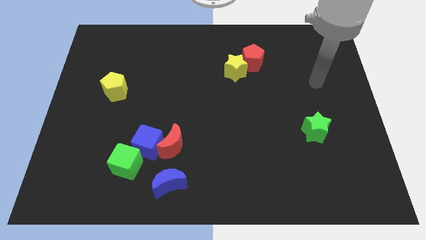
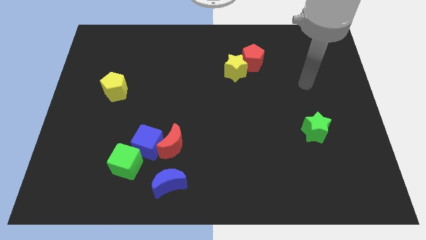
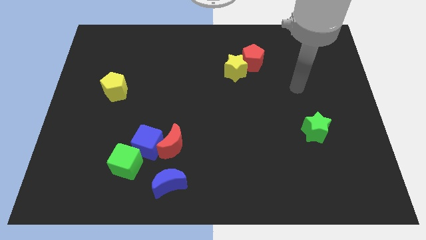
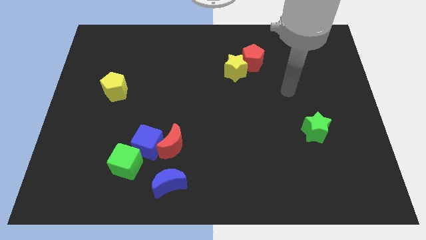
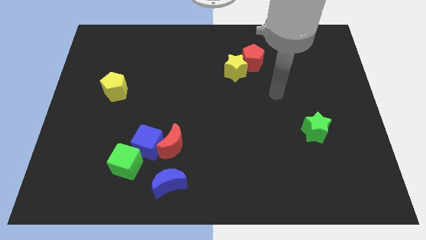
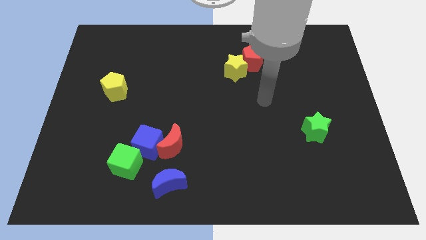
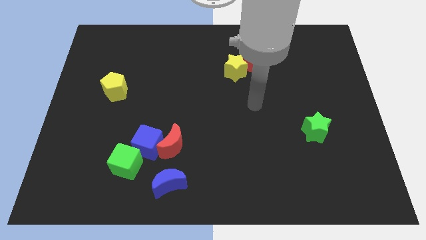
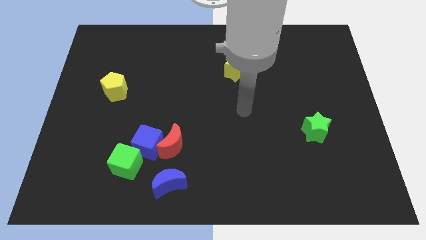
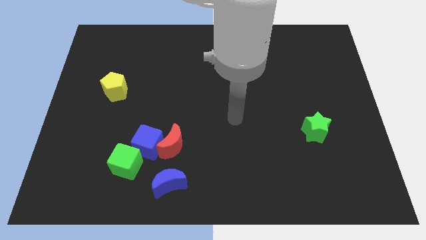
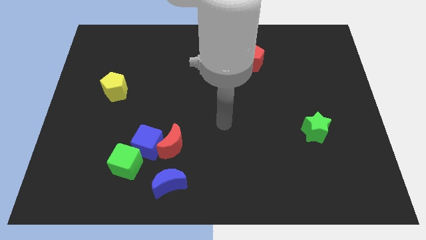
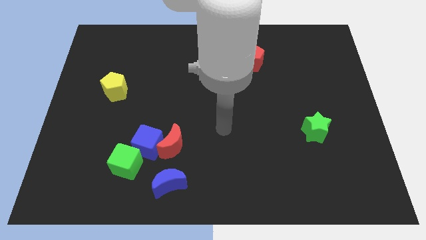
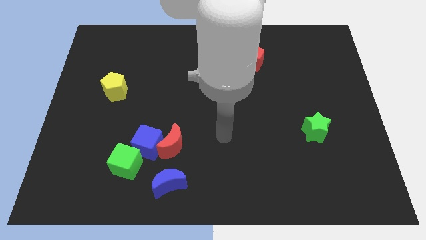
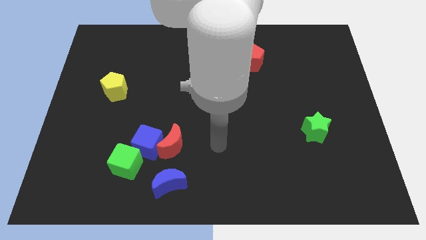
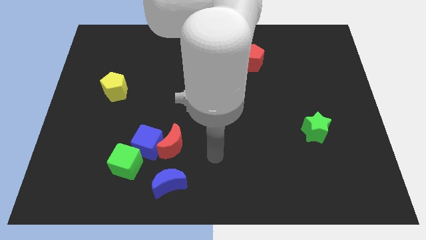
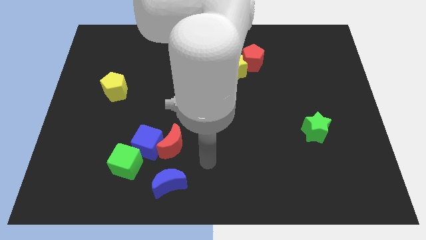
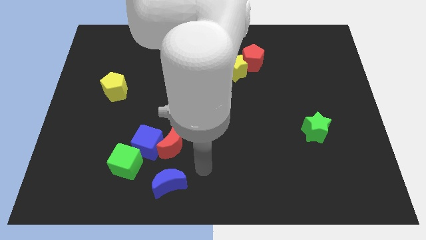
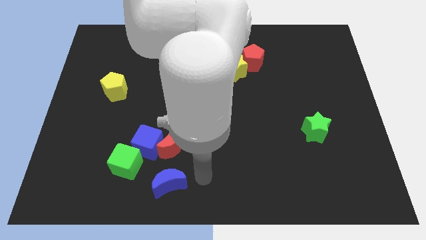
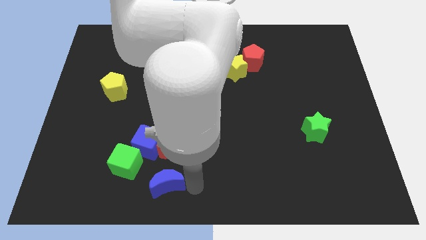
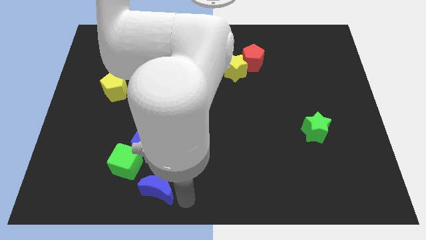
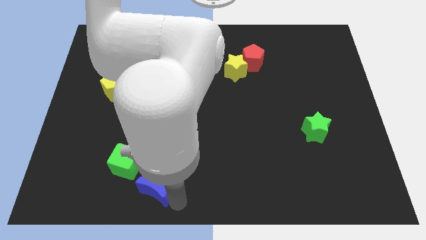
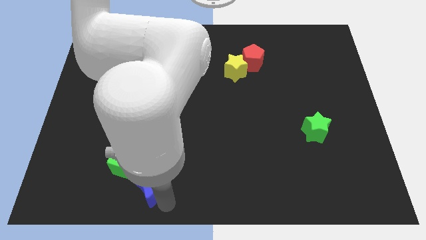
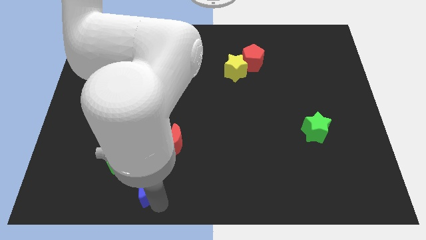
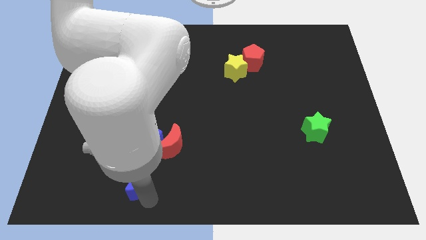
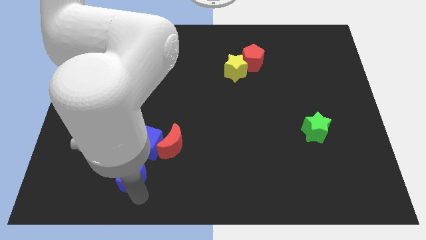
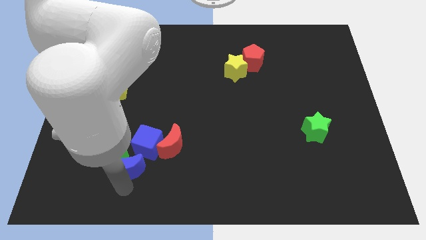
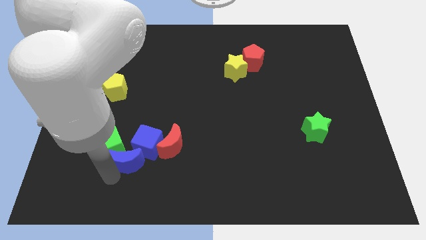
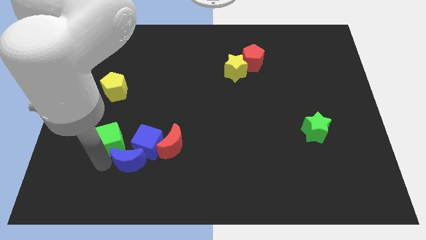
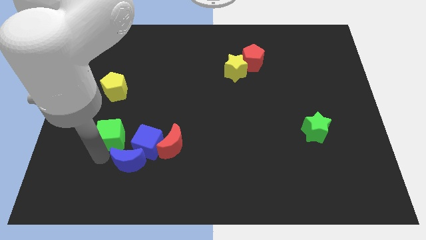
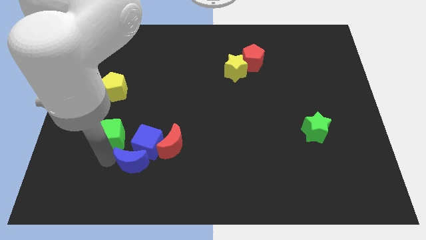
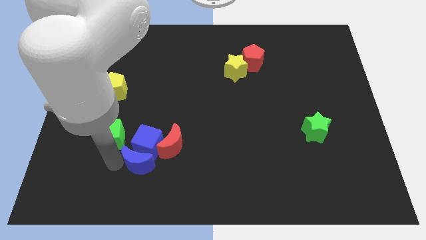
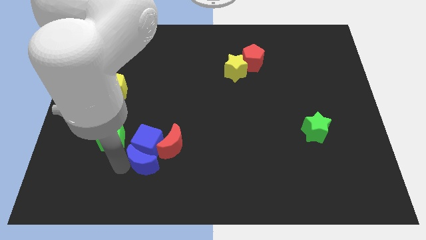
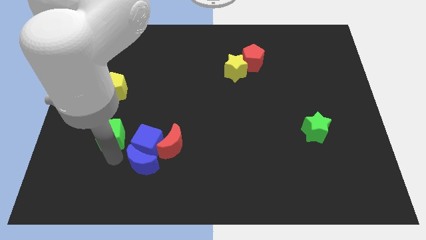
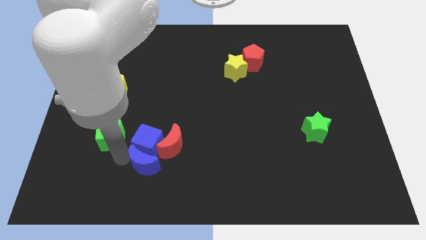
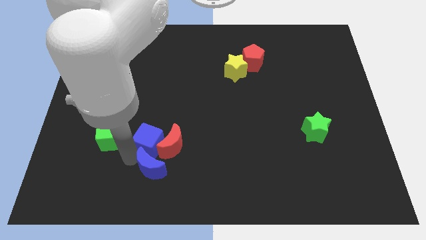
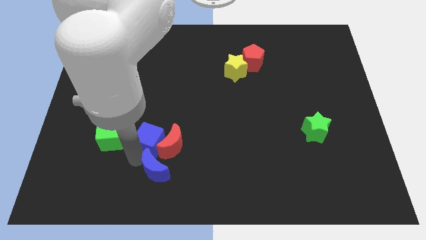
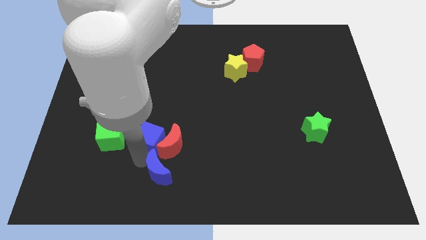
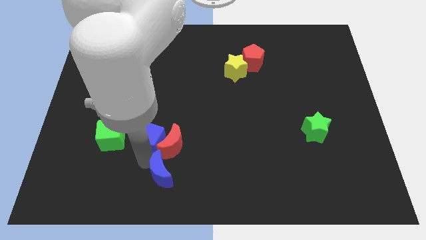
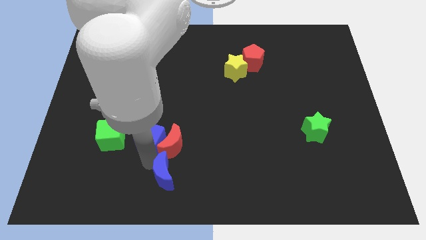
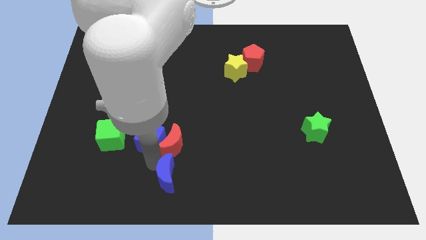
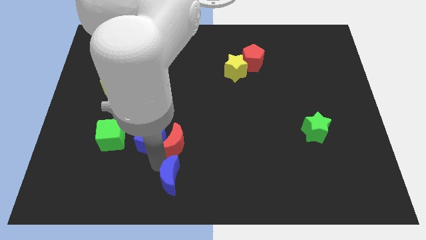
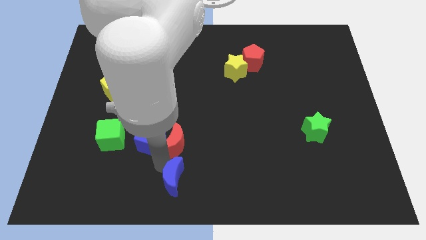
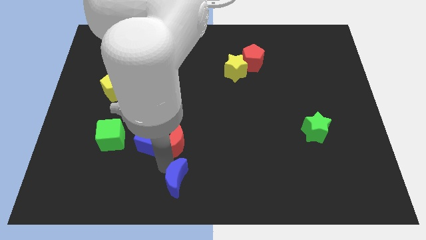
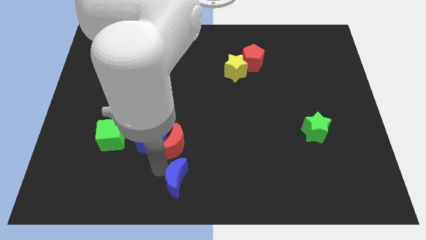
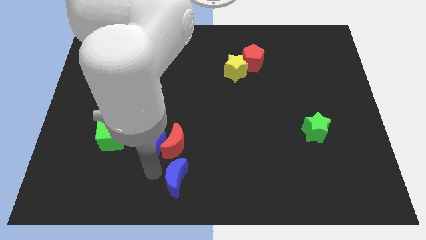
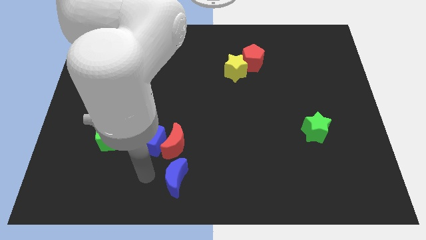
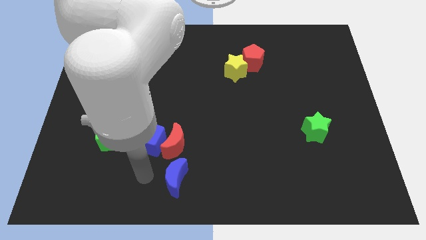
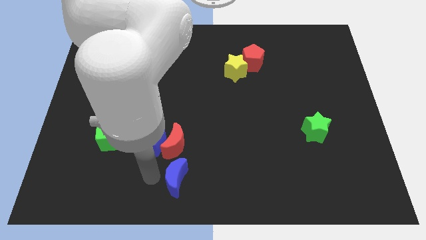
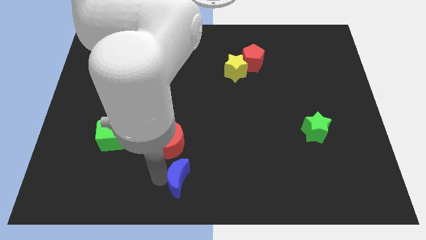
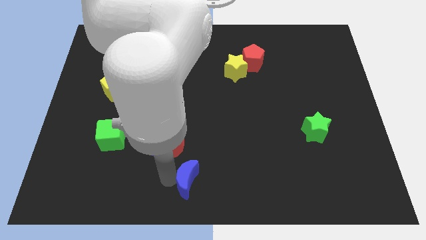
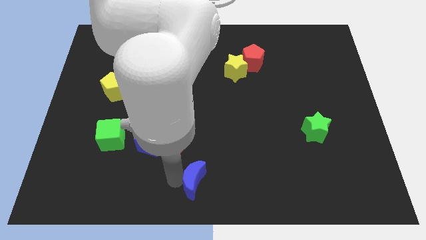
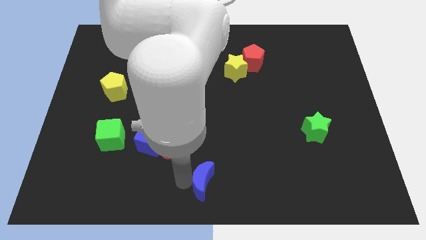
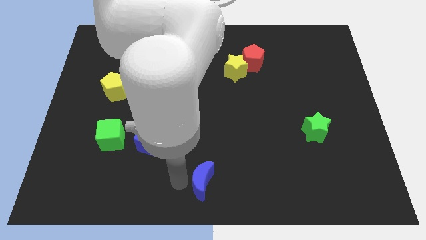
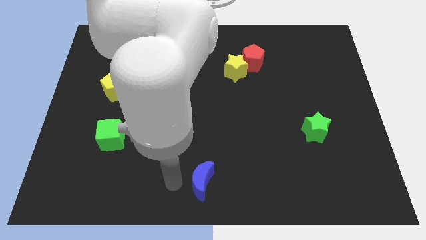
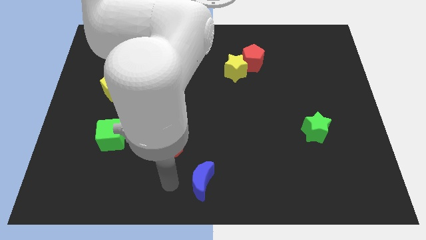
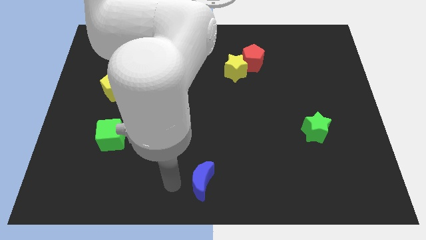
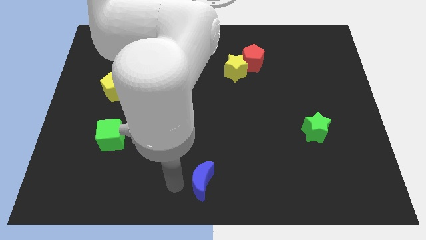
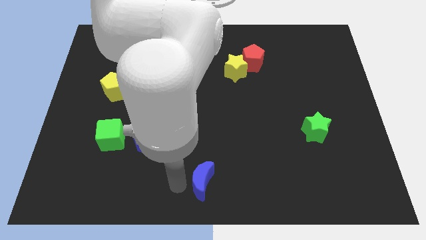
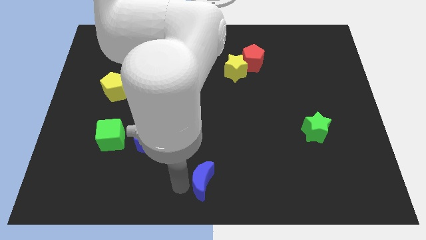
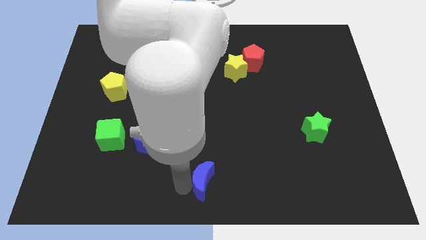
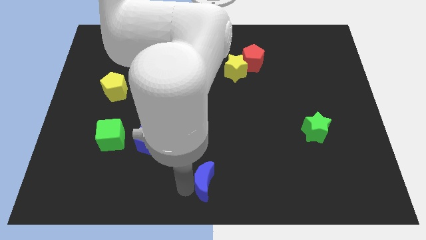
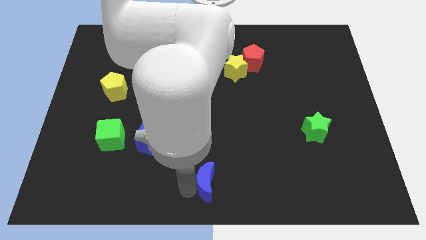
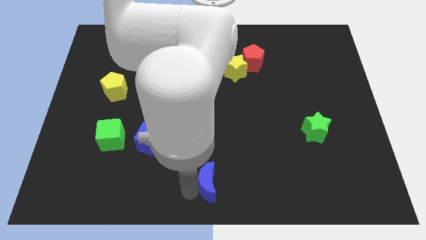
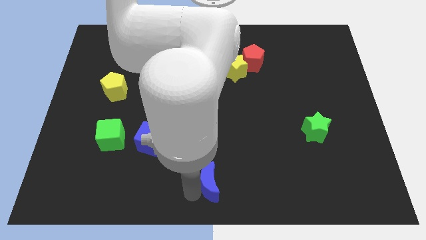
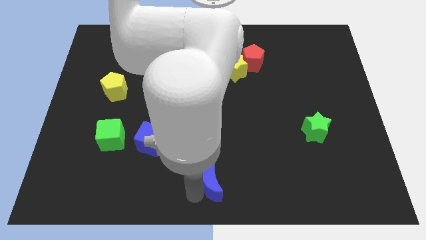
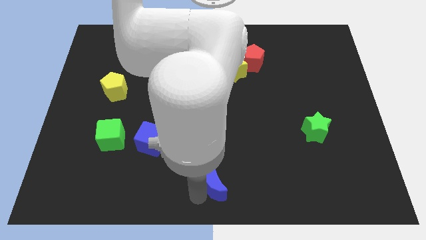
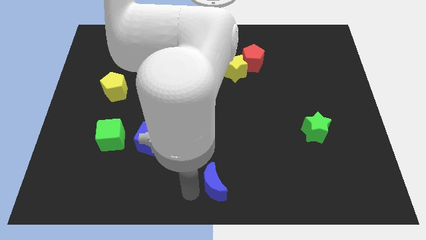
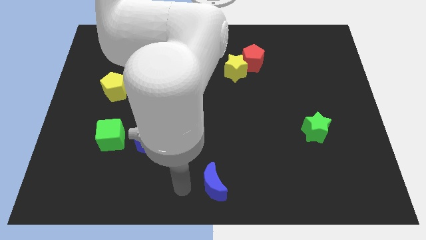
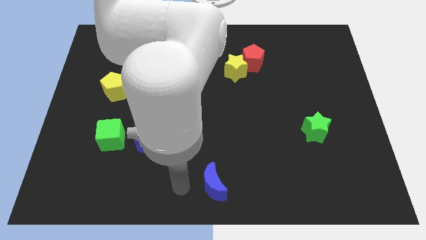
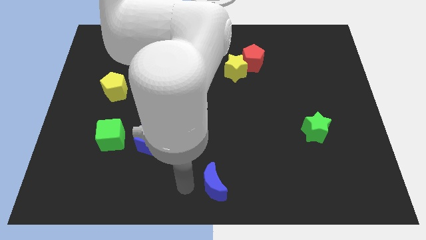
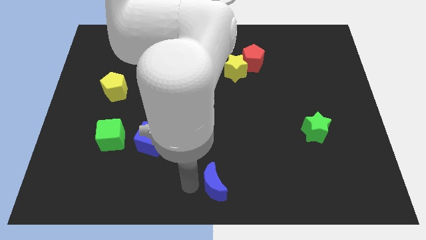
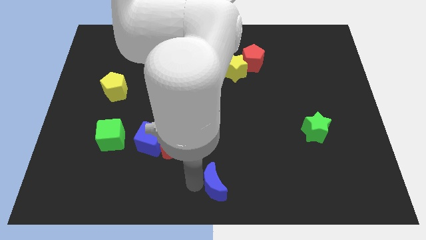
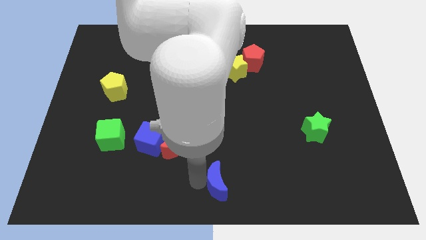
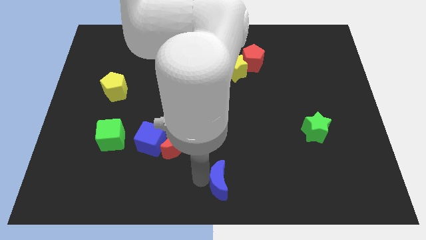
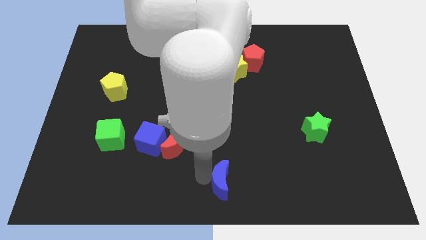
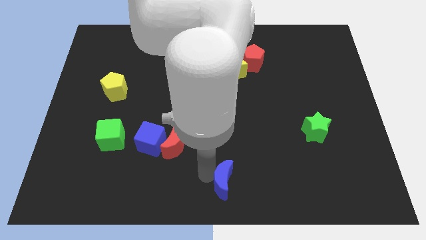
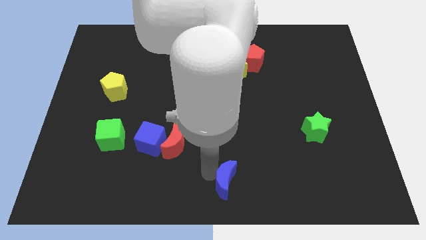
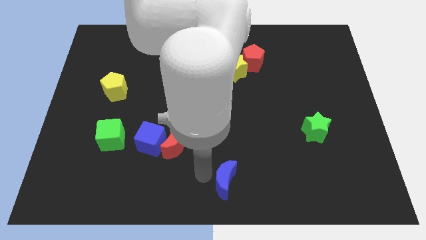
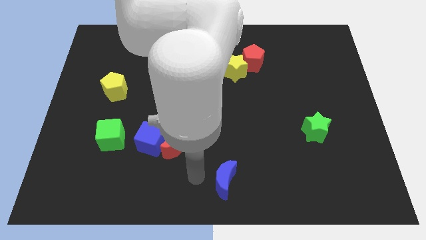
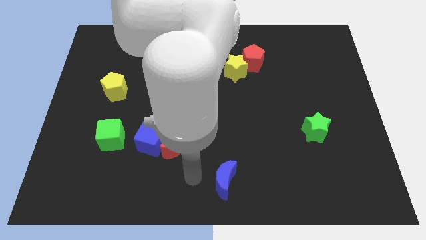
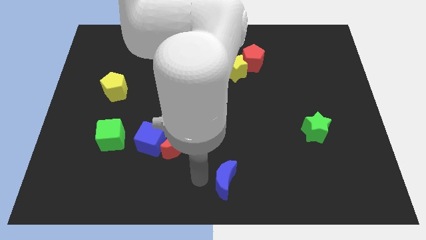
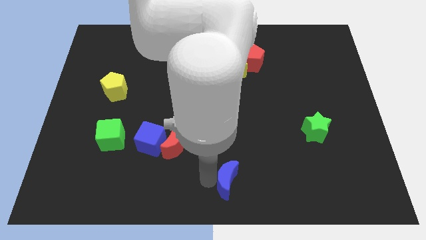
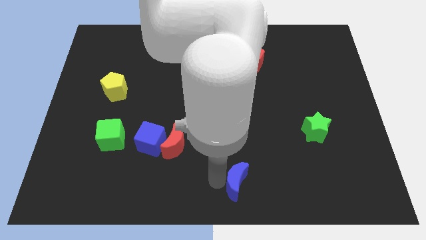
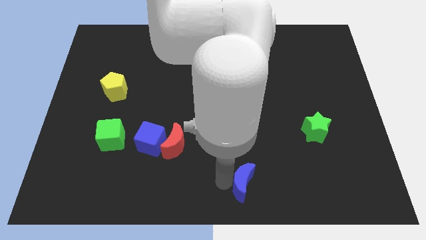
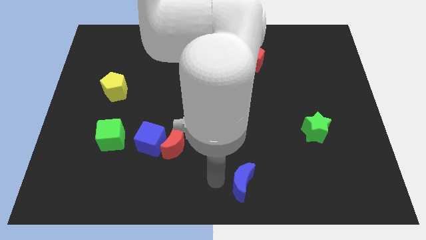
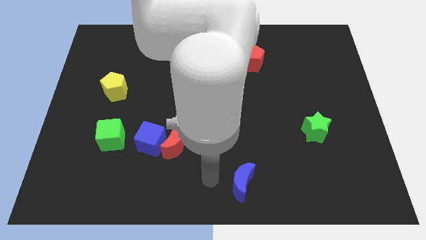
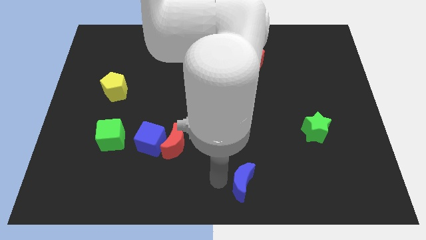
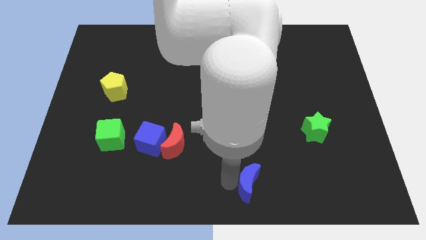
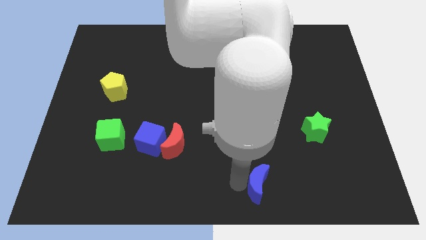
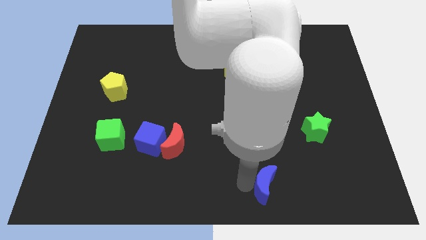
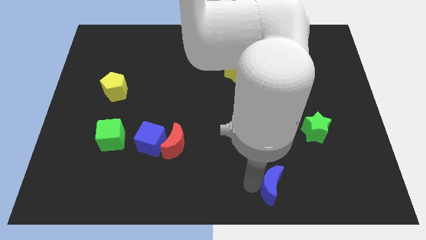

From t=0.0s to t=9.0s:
slide the blue moon to the right
